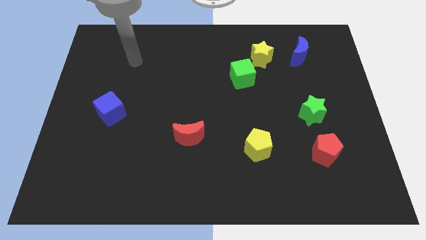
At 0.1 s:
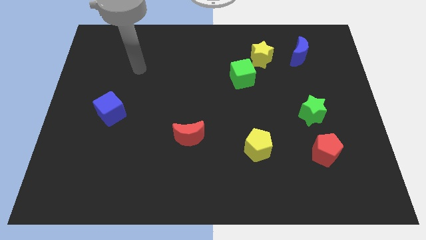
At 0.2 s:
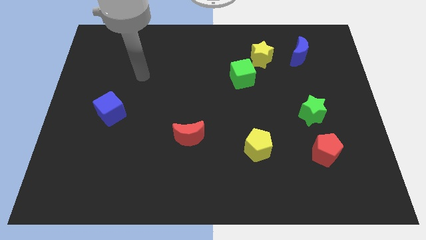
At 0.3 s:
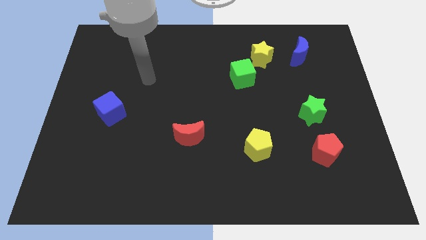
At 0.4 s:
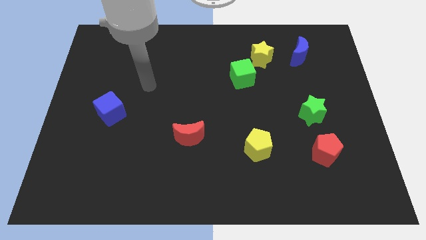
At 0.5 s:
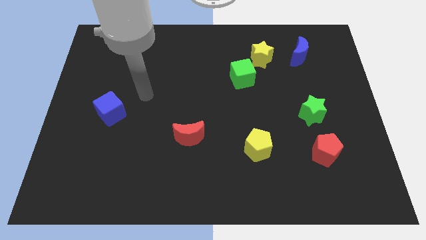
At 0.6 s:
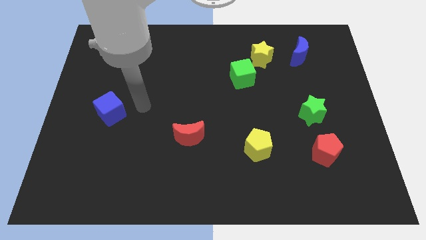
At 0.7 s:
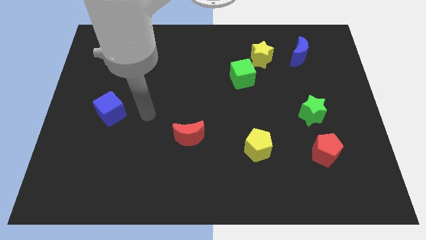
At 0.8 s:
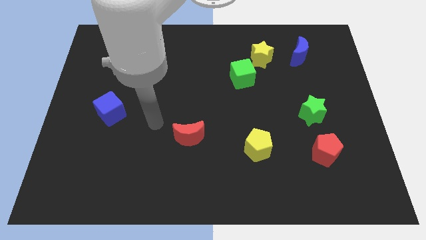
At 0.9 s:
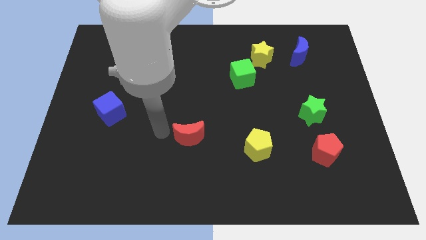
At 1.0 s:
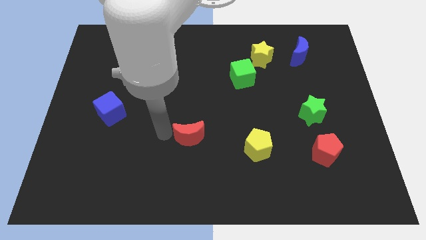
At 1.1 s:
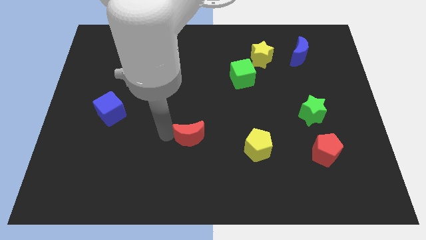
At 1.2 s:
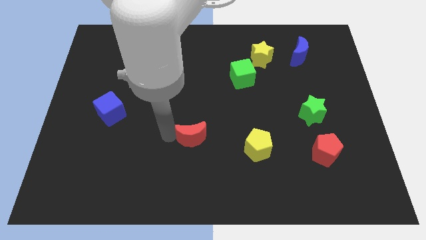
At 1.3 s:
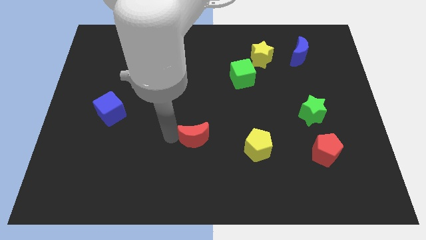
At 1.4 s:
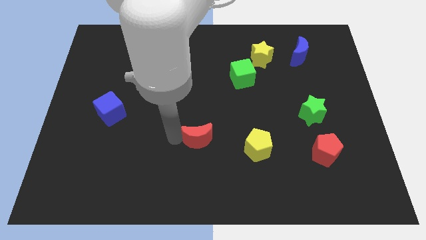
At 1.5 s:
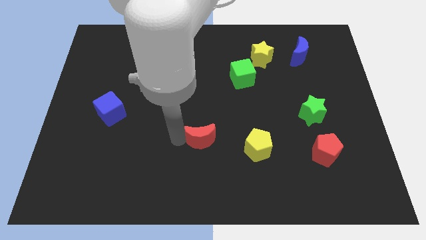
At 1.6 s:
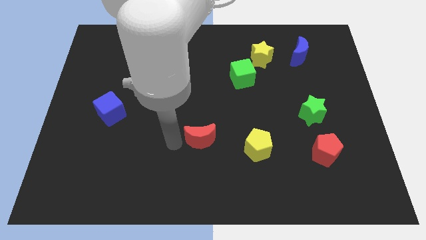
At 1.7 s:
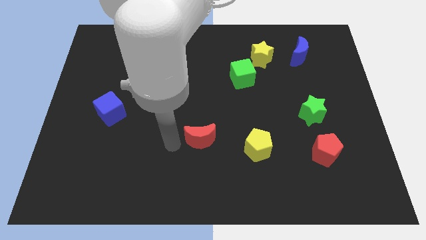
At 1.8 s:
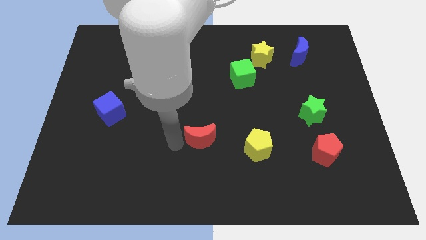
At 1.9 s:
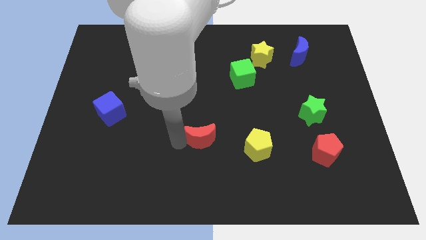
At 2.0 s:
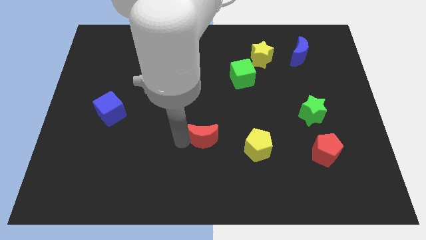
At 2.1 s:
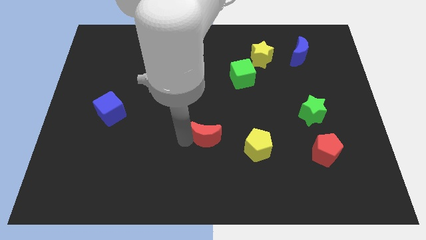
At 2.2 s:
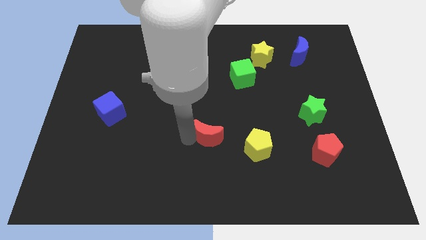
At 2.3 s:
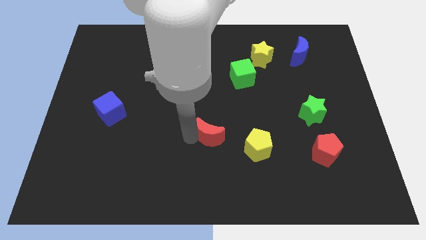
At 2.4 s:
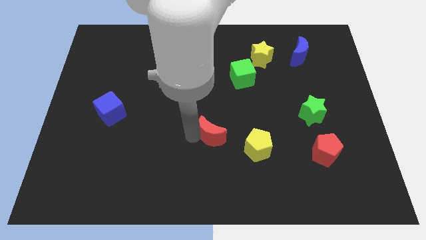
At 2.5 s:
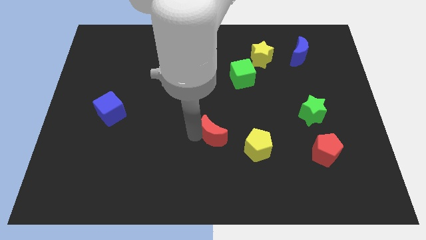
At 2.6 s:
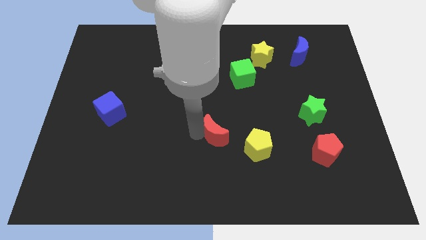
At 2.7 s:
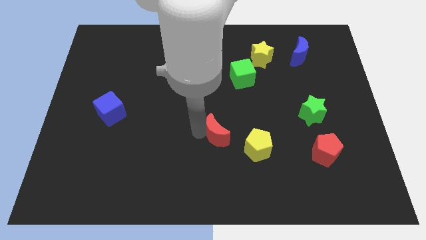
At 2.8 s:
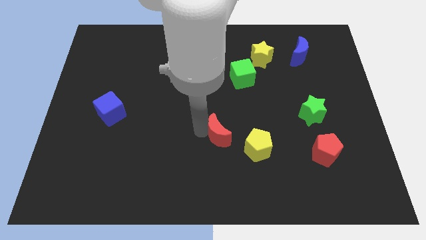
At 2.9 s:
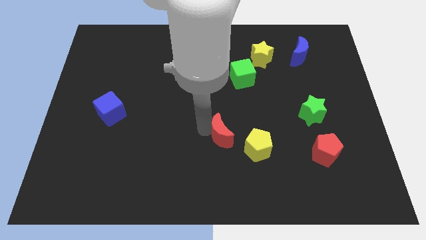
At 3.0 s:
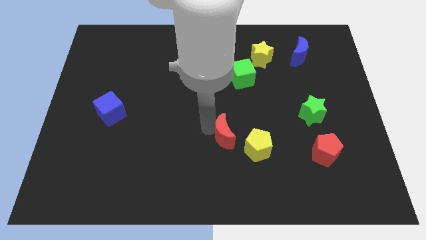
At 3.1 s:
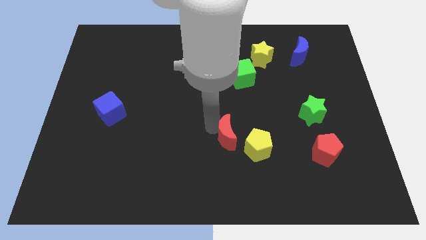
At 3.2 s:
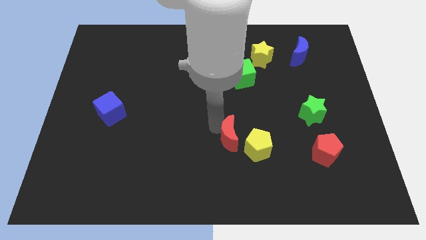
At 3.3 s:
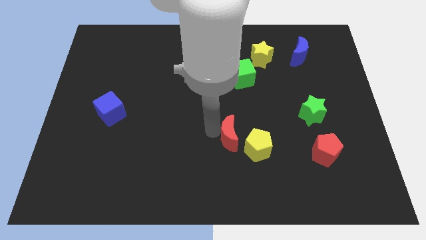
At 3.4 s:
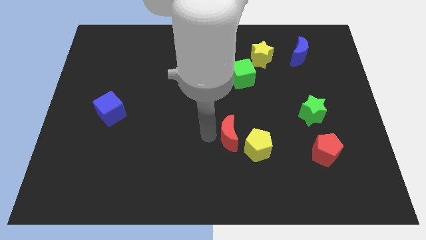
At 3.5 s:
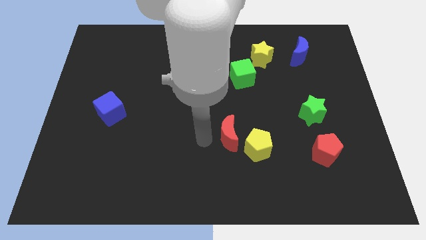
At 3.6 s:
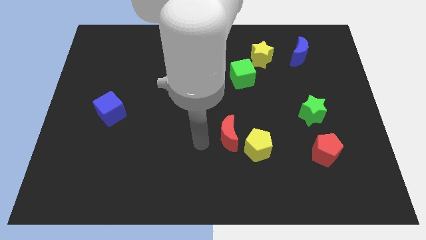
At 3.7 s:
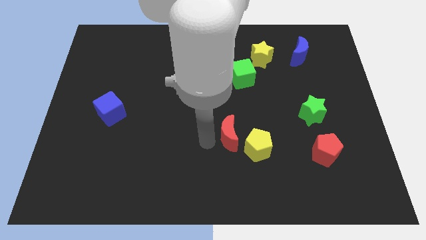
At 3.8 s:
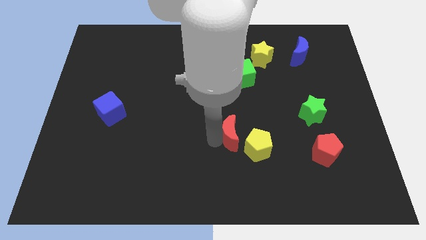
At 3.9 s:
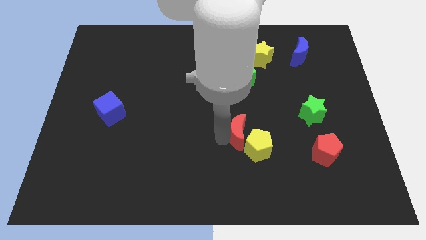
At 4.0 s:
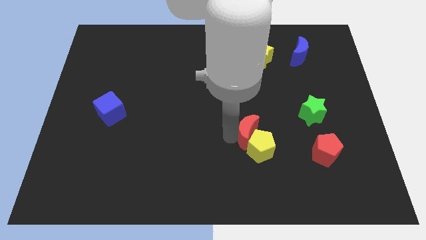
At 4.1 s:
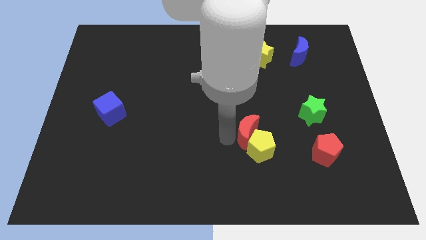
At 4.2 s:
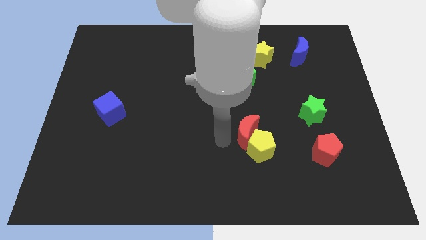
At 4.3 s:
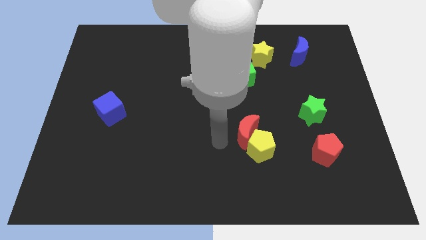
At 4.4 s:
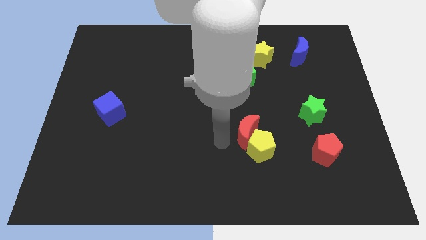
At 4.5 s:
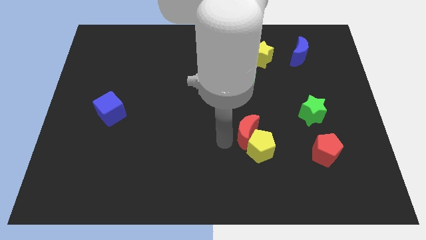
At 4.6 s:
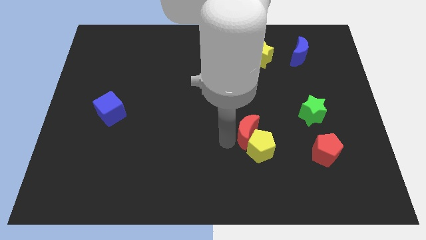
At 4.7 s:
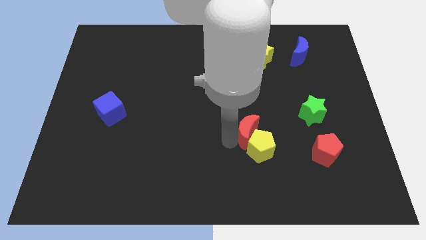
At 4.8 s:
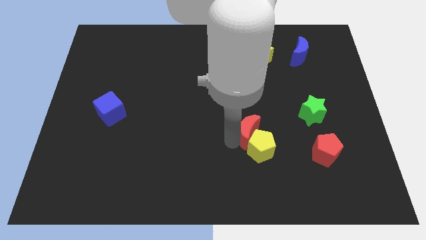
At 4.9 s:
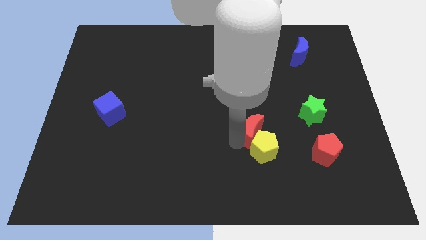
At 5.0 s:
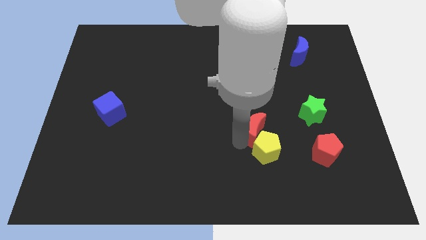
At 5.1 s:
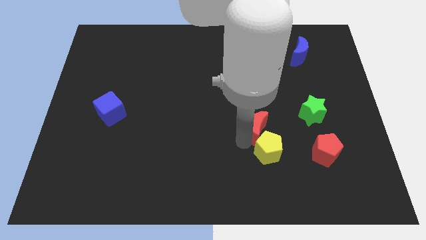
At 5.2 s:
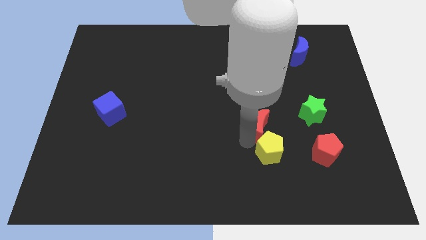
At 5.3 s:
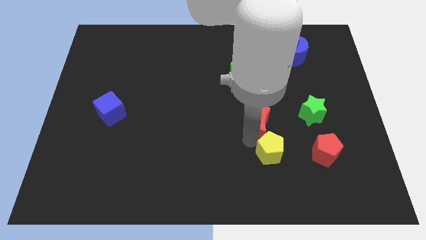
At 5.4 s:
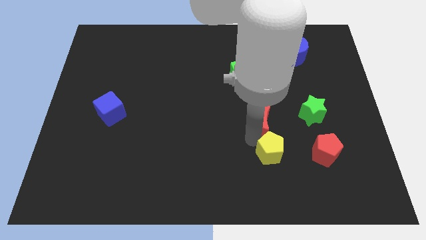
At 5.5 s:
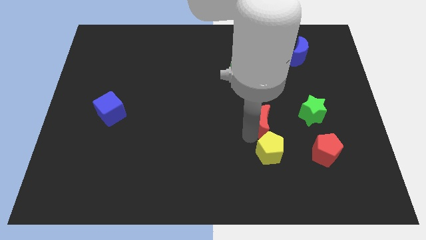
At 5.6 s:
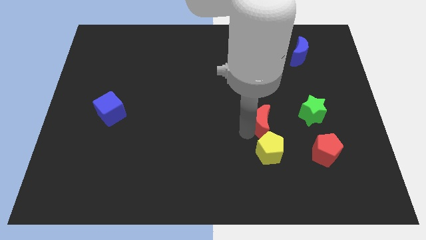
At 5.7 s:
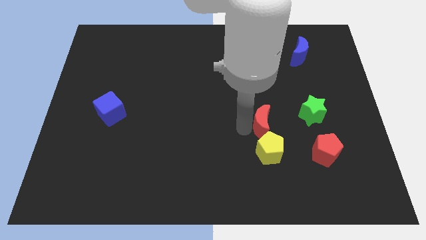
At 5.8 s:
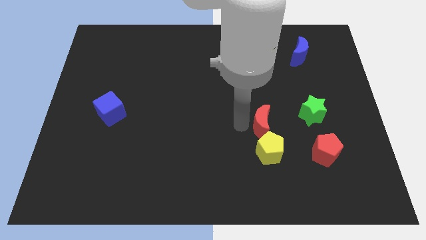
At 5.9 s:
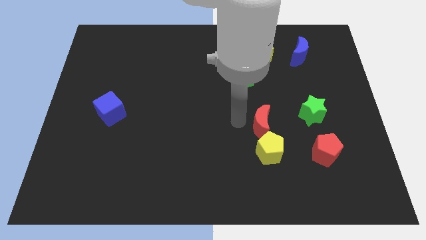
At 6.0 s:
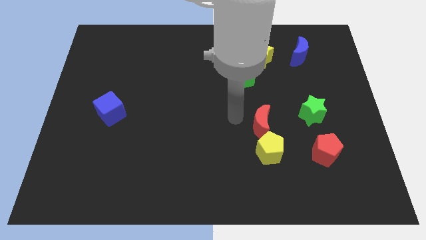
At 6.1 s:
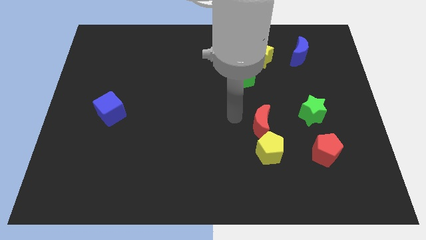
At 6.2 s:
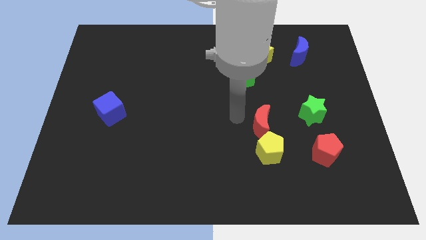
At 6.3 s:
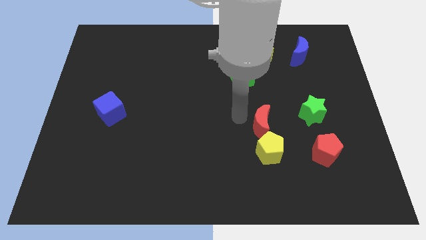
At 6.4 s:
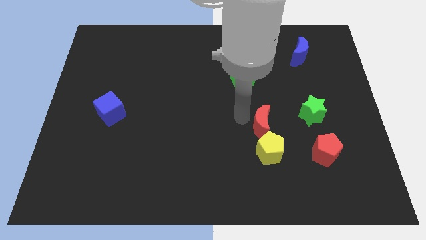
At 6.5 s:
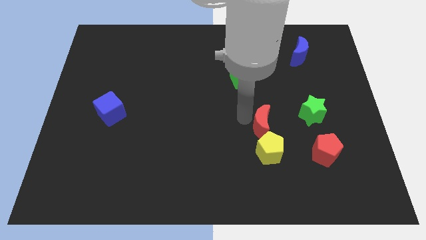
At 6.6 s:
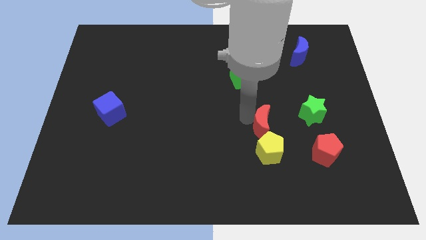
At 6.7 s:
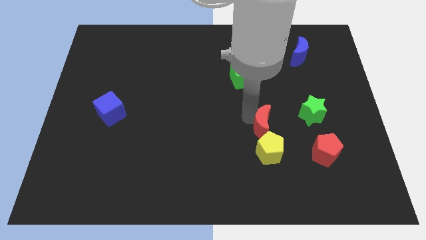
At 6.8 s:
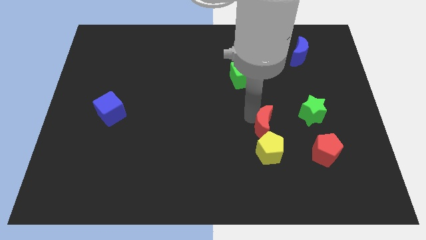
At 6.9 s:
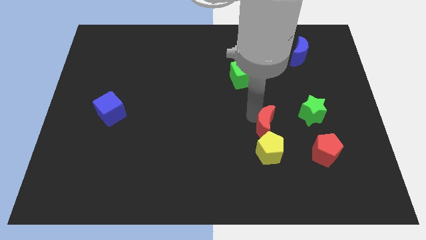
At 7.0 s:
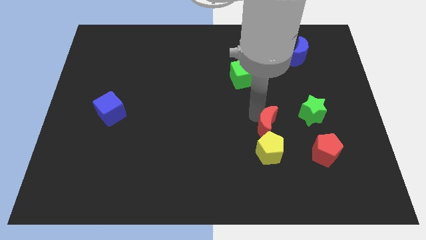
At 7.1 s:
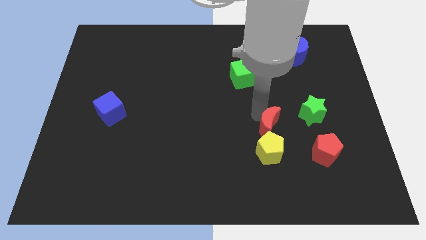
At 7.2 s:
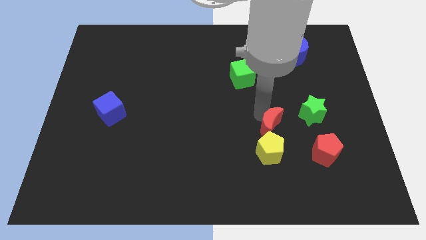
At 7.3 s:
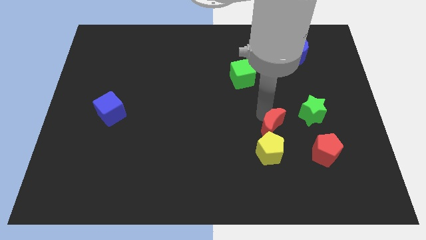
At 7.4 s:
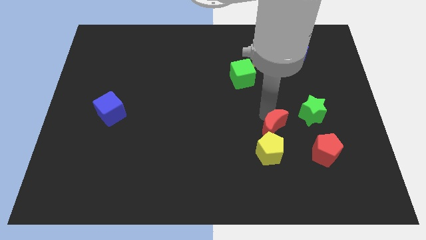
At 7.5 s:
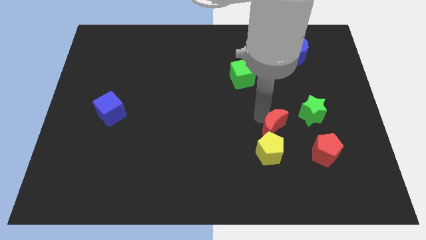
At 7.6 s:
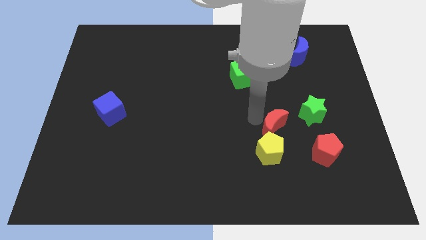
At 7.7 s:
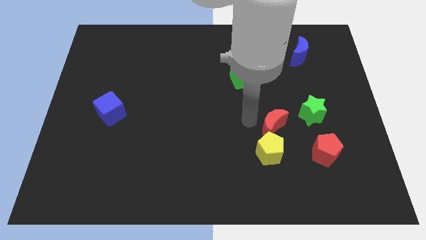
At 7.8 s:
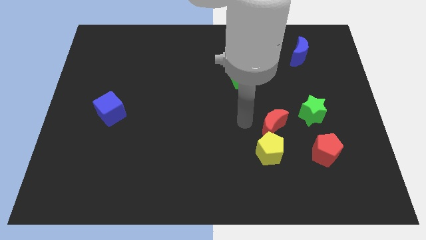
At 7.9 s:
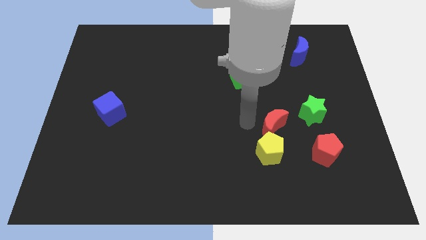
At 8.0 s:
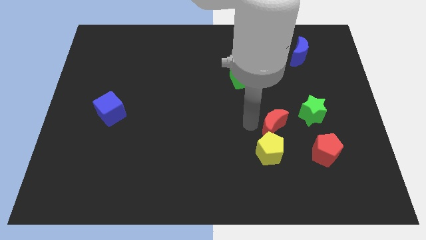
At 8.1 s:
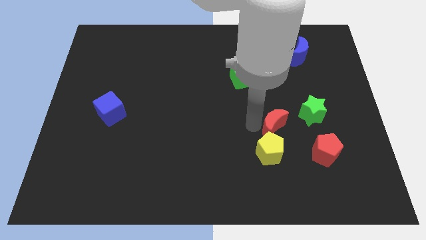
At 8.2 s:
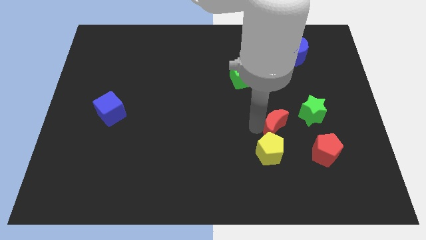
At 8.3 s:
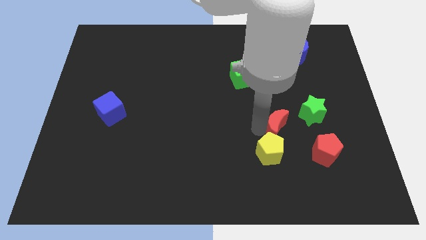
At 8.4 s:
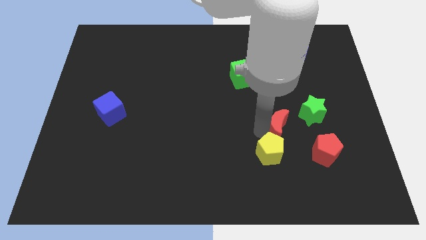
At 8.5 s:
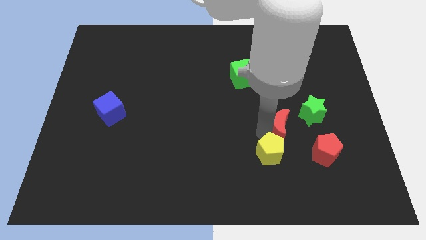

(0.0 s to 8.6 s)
push the red moon to the right
